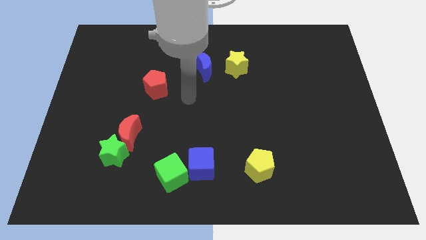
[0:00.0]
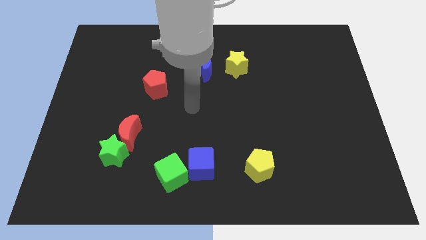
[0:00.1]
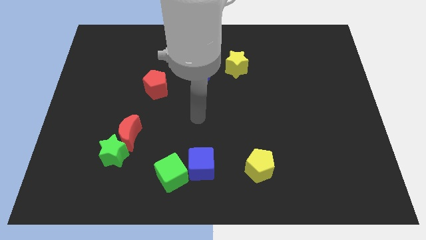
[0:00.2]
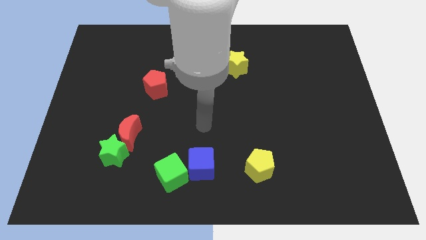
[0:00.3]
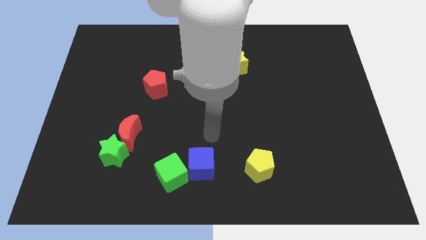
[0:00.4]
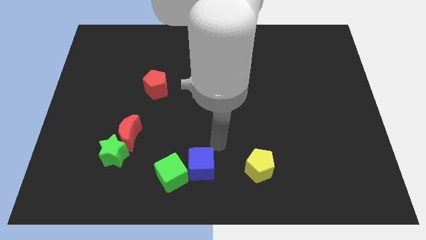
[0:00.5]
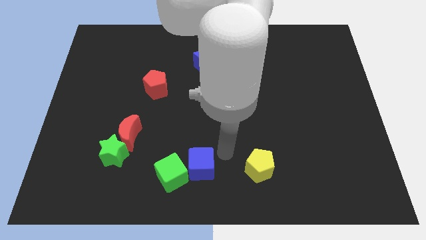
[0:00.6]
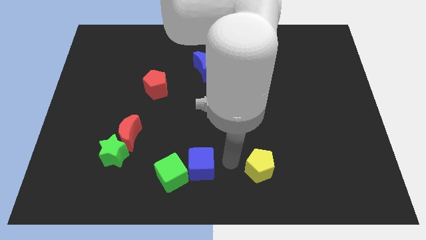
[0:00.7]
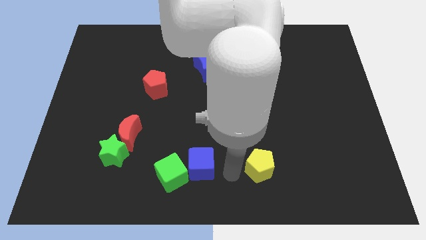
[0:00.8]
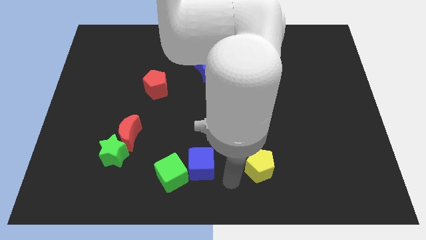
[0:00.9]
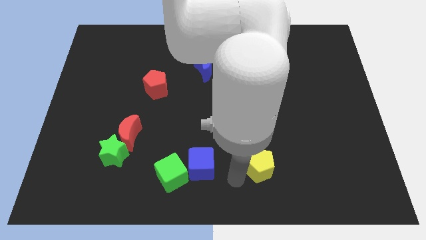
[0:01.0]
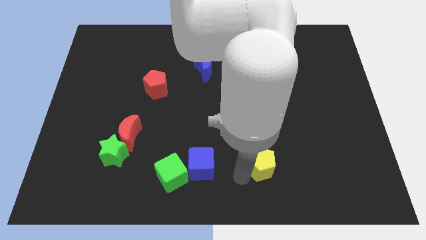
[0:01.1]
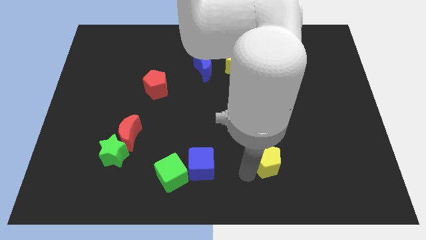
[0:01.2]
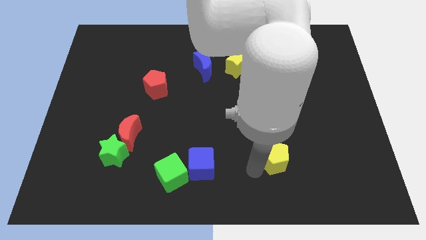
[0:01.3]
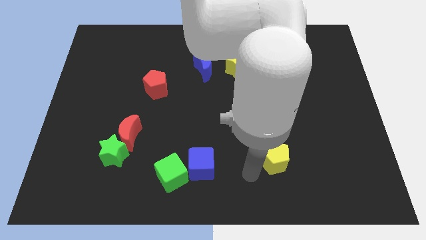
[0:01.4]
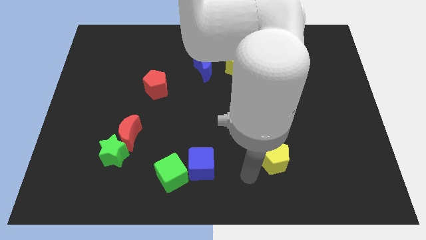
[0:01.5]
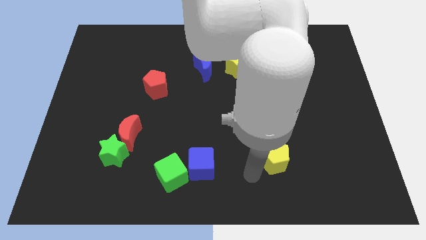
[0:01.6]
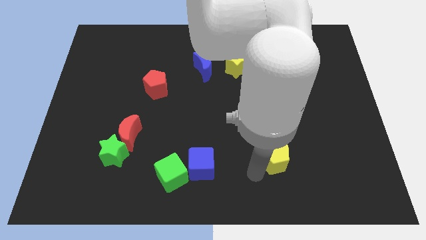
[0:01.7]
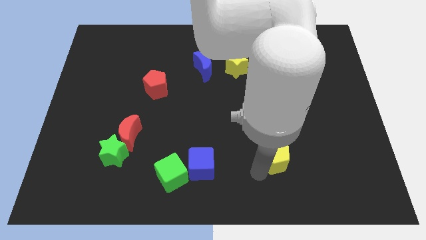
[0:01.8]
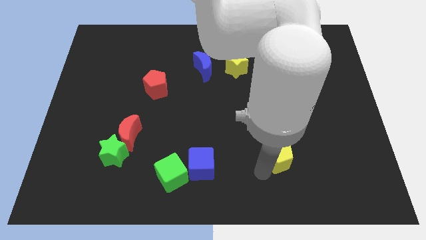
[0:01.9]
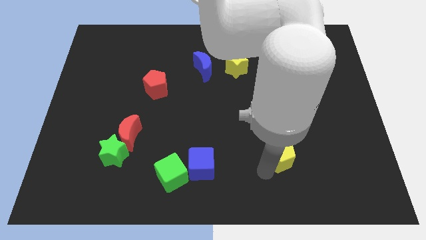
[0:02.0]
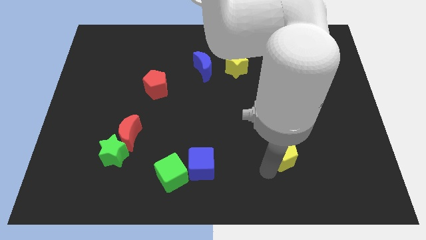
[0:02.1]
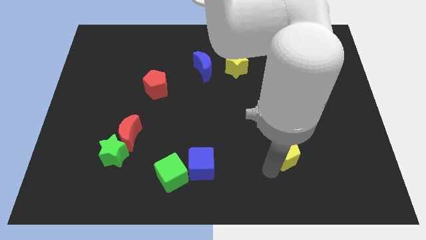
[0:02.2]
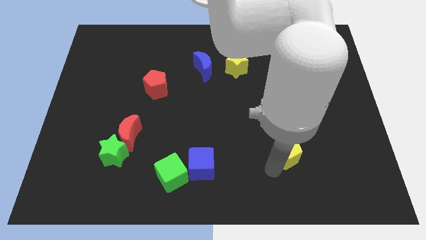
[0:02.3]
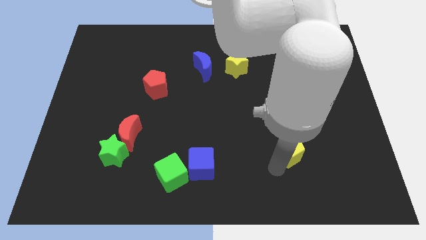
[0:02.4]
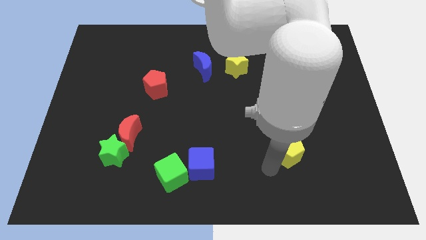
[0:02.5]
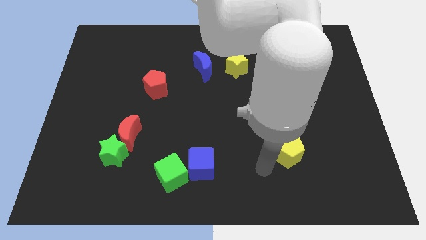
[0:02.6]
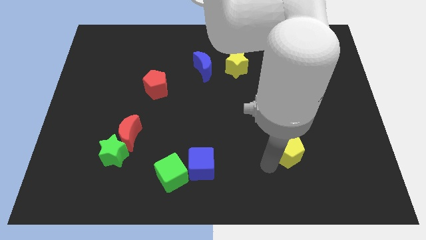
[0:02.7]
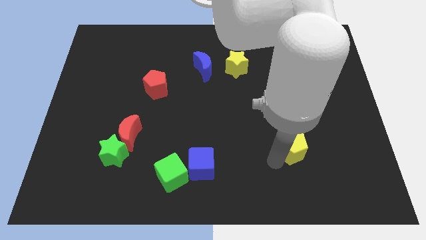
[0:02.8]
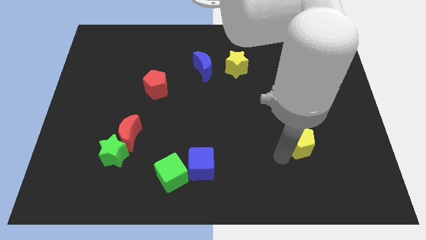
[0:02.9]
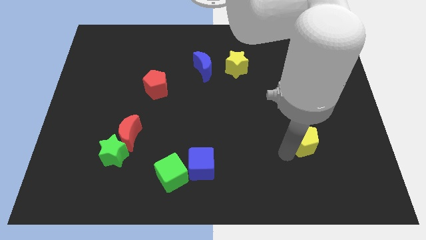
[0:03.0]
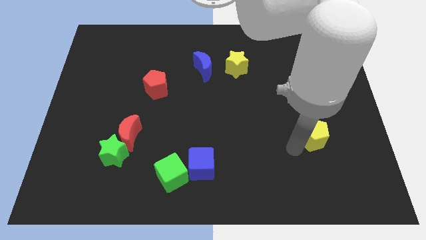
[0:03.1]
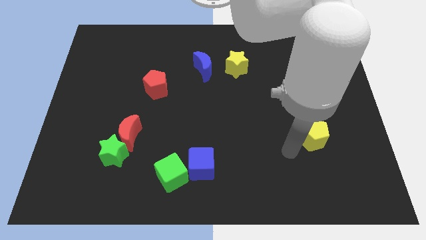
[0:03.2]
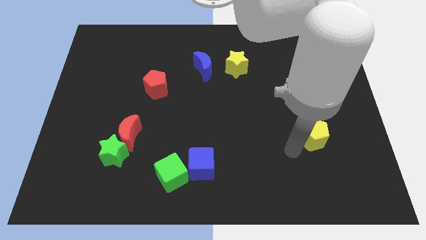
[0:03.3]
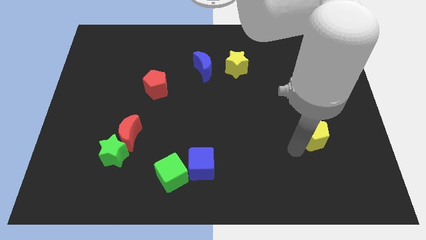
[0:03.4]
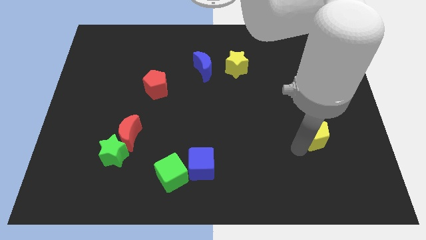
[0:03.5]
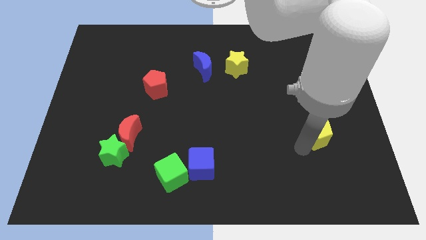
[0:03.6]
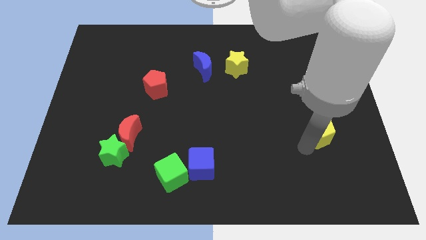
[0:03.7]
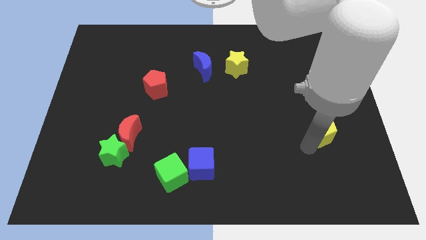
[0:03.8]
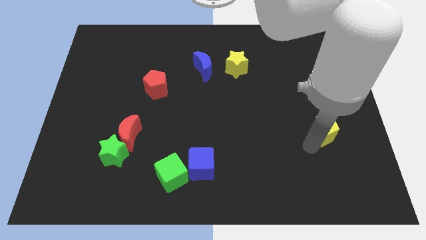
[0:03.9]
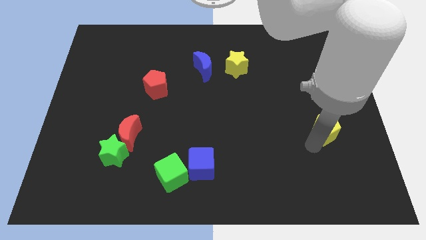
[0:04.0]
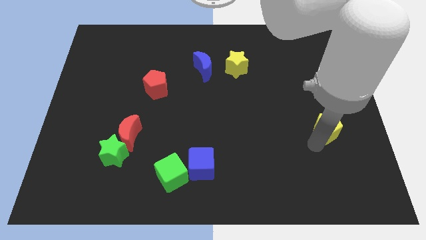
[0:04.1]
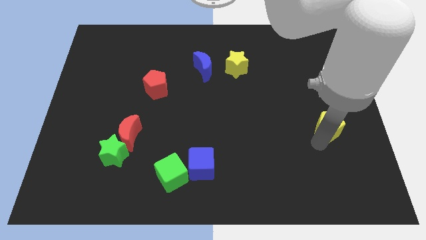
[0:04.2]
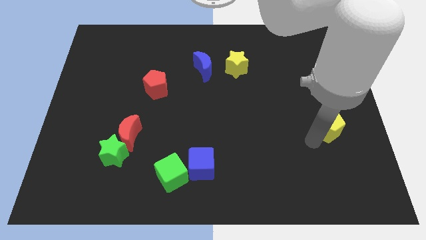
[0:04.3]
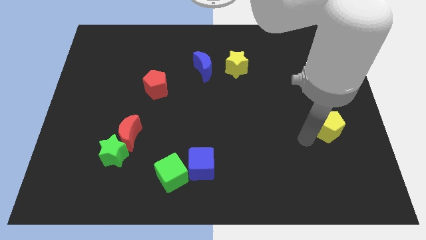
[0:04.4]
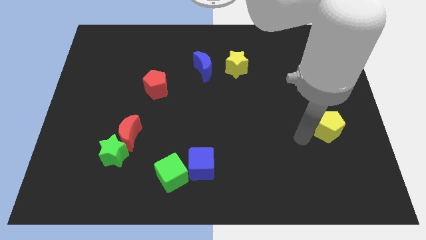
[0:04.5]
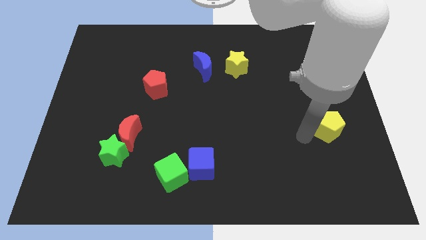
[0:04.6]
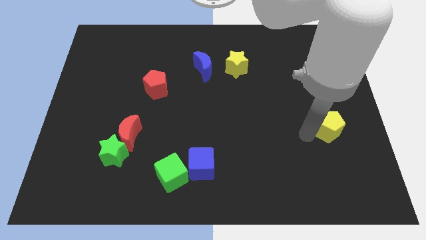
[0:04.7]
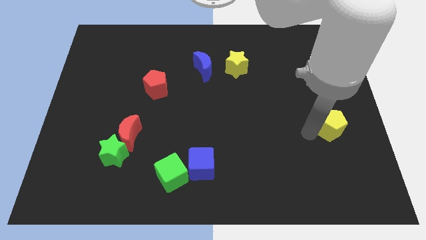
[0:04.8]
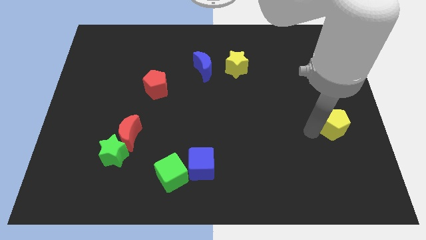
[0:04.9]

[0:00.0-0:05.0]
move the yellow pentagon to the right side of the board

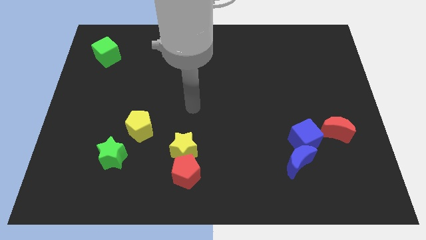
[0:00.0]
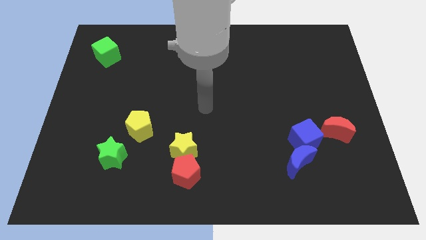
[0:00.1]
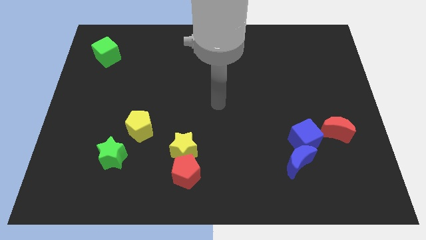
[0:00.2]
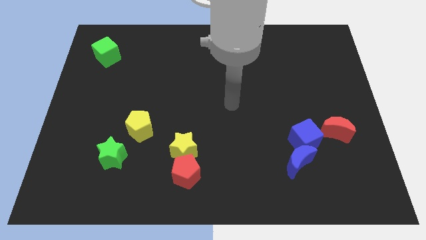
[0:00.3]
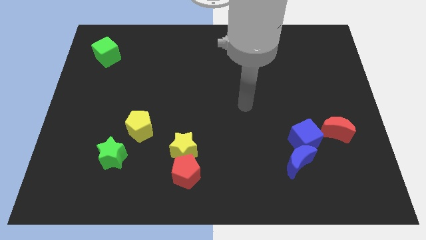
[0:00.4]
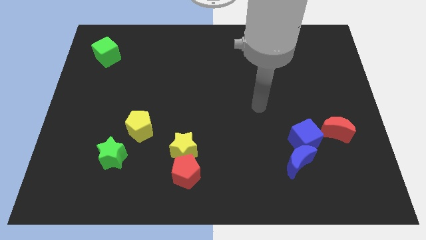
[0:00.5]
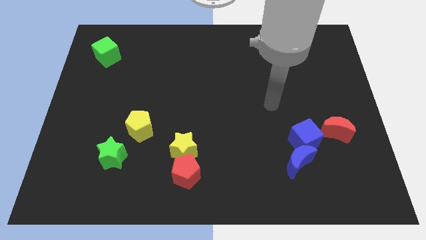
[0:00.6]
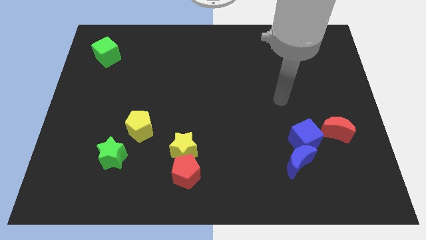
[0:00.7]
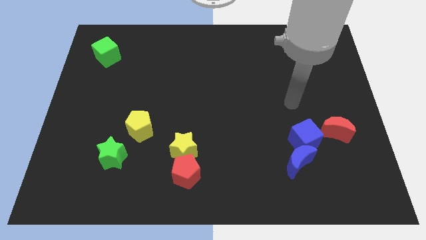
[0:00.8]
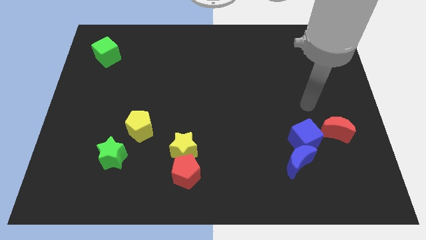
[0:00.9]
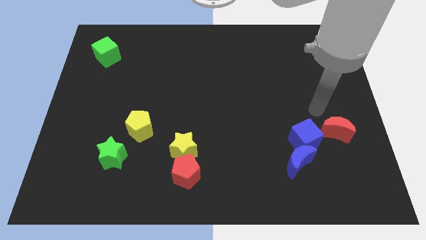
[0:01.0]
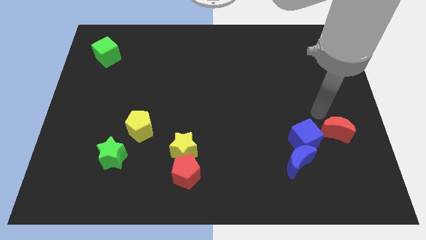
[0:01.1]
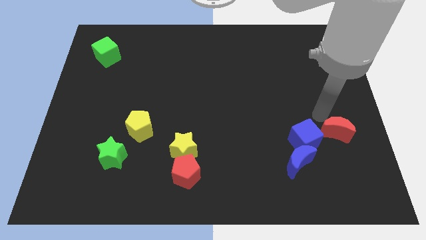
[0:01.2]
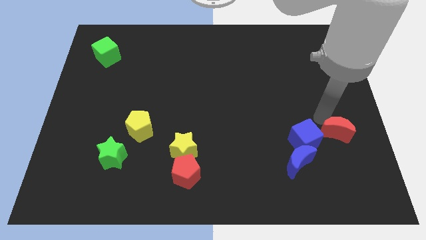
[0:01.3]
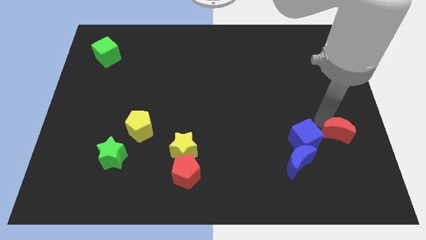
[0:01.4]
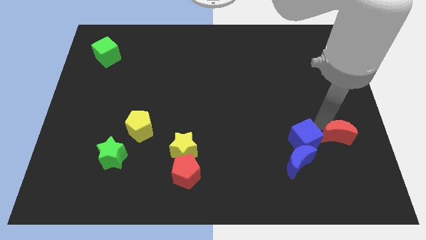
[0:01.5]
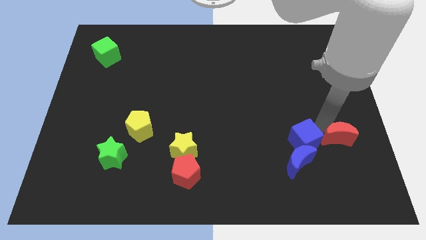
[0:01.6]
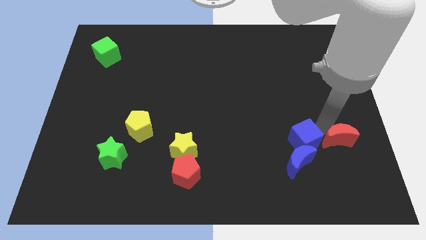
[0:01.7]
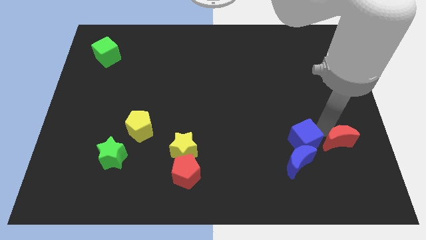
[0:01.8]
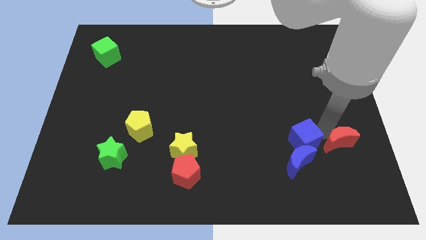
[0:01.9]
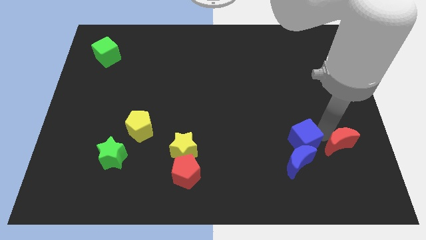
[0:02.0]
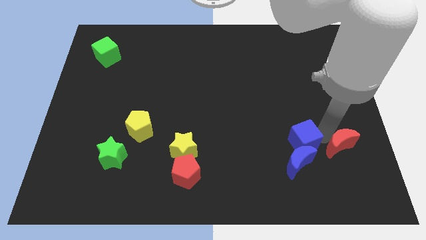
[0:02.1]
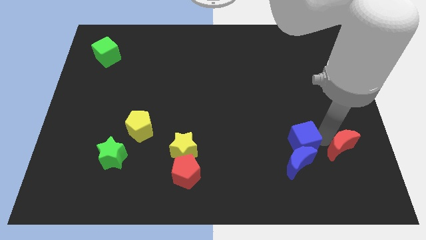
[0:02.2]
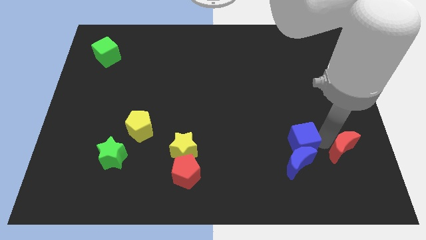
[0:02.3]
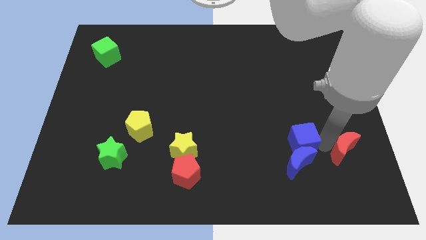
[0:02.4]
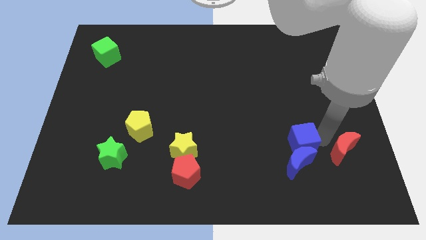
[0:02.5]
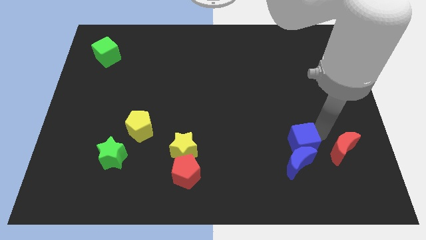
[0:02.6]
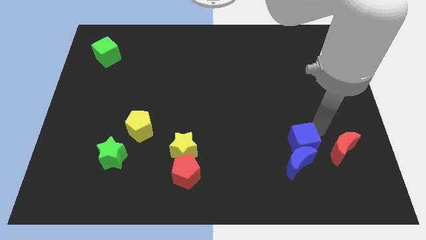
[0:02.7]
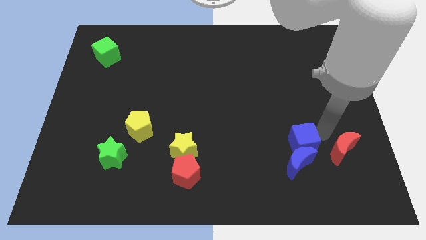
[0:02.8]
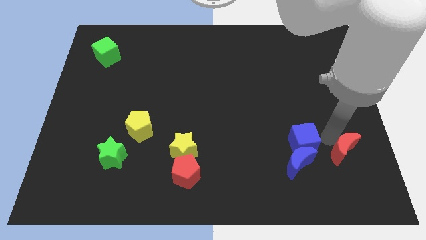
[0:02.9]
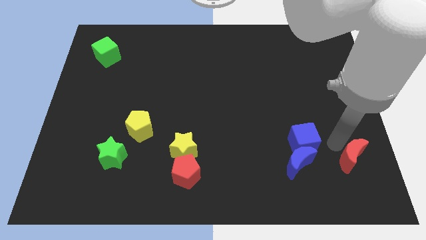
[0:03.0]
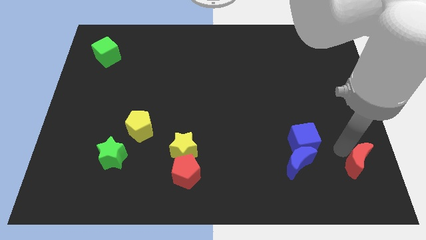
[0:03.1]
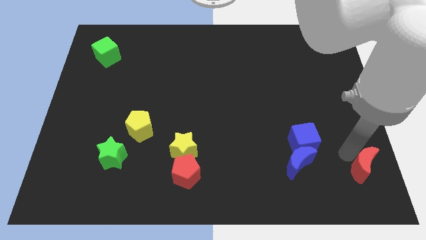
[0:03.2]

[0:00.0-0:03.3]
push the red moon to the bottom right of the board
